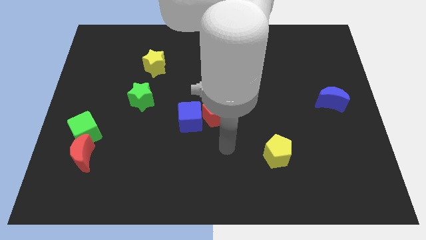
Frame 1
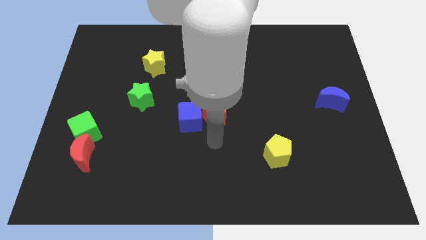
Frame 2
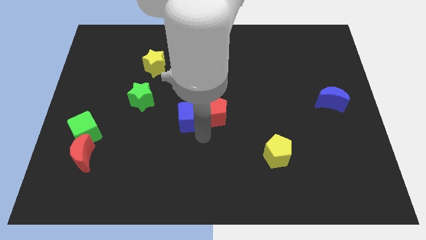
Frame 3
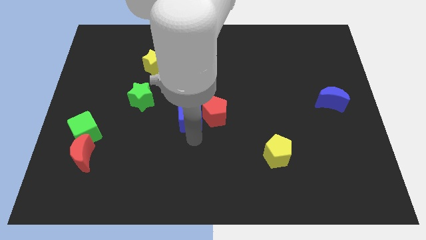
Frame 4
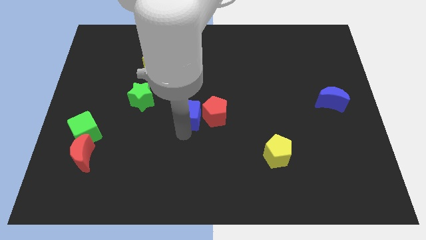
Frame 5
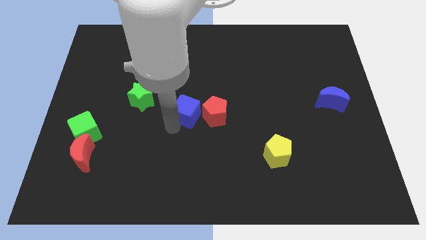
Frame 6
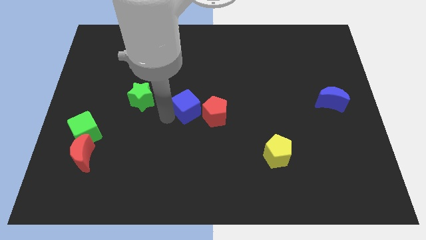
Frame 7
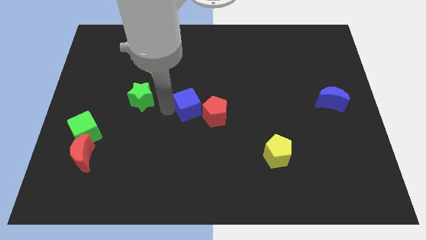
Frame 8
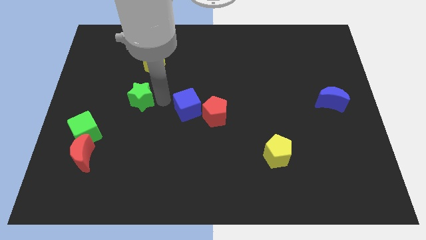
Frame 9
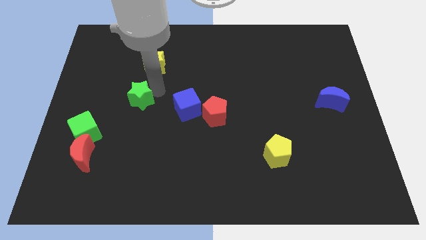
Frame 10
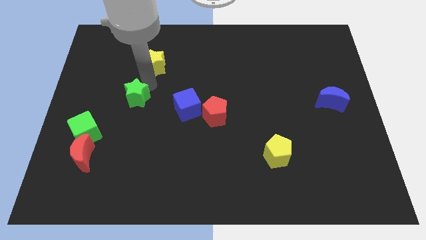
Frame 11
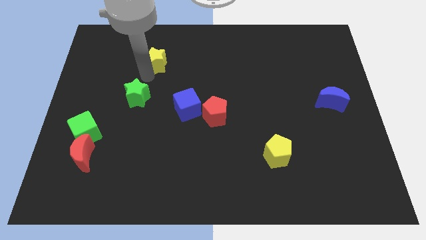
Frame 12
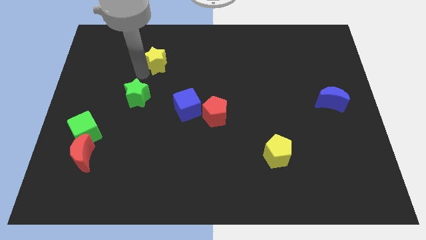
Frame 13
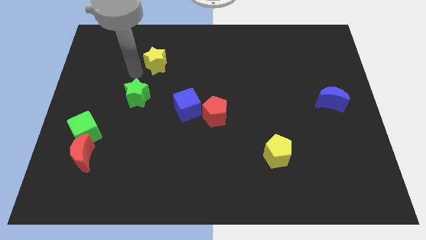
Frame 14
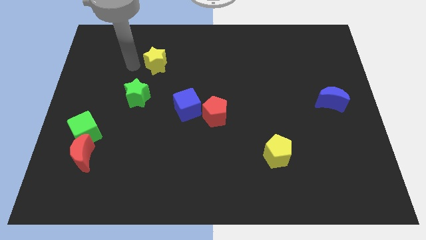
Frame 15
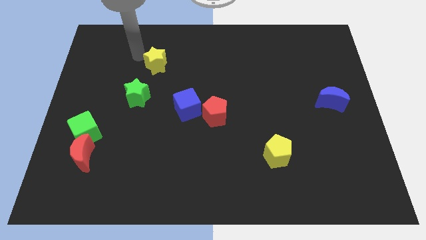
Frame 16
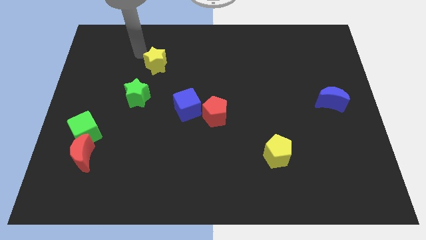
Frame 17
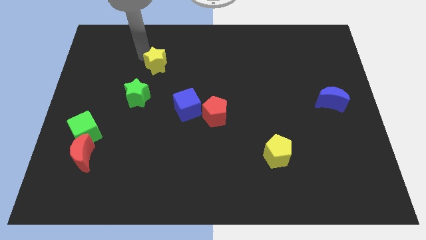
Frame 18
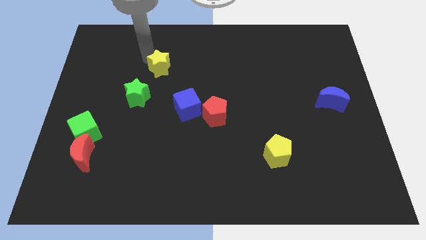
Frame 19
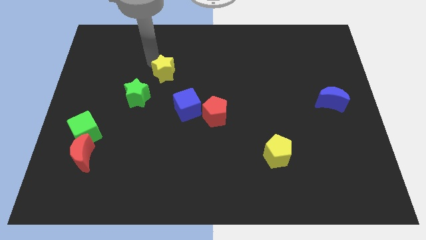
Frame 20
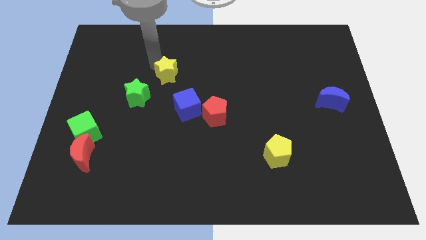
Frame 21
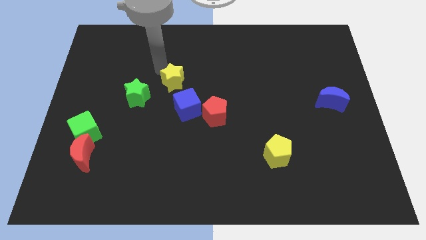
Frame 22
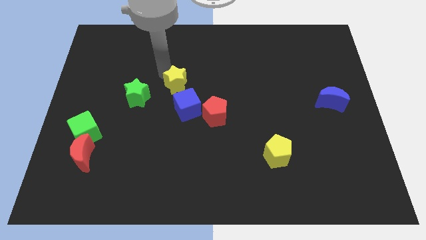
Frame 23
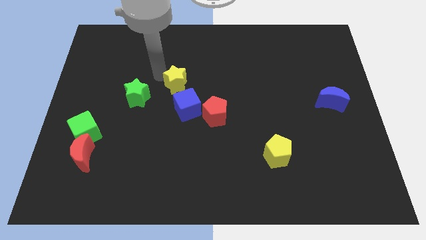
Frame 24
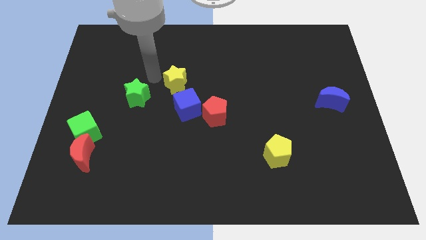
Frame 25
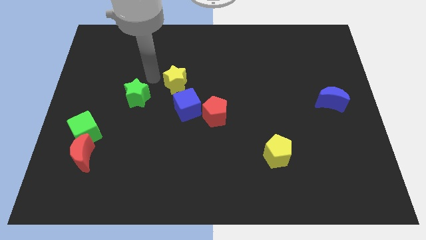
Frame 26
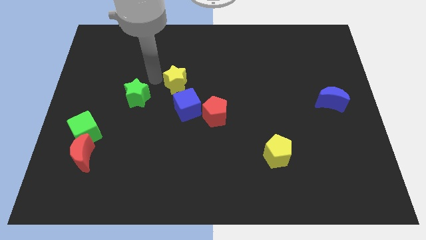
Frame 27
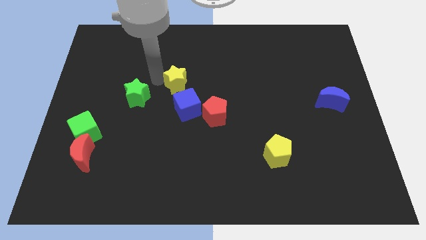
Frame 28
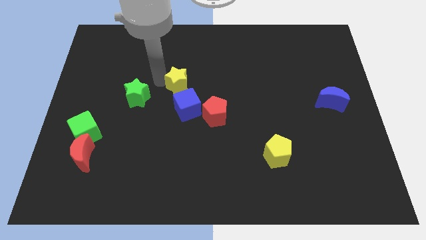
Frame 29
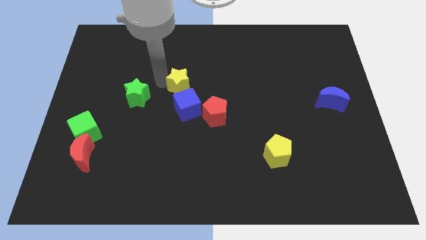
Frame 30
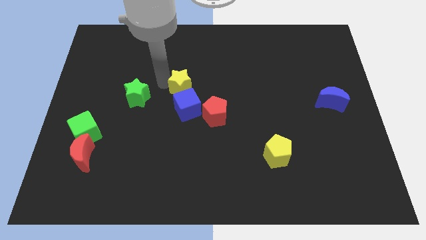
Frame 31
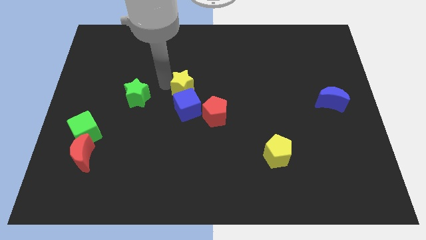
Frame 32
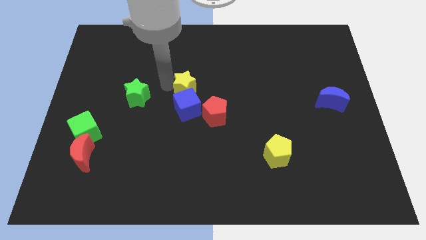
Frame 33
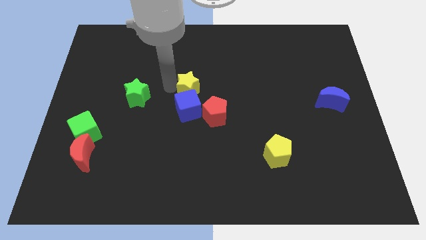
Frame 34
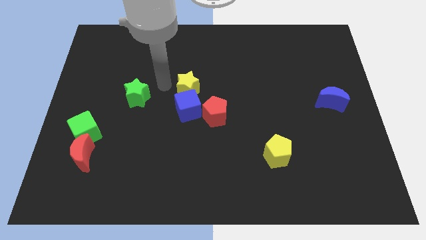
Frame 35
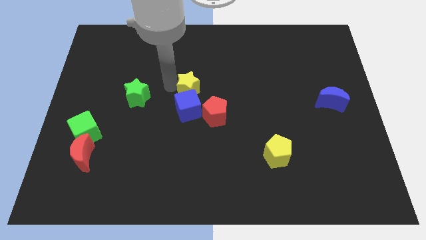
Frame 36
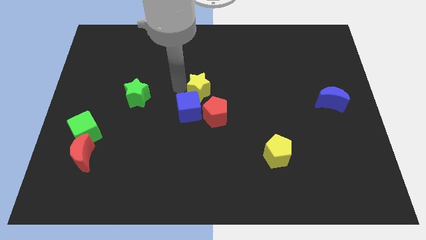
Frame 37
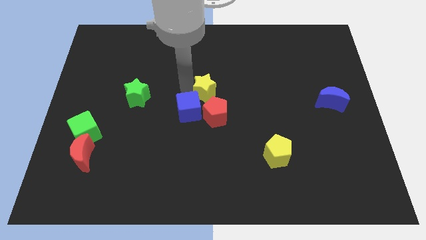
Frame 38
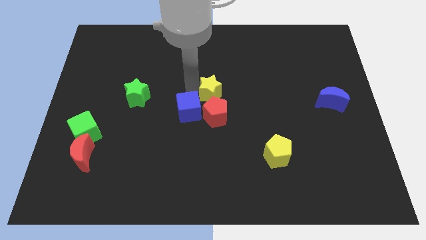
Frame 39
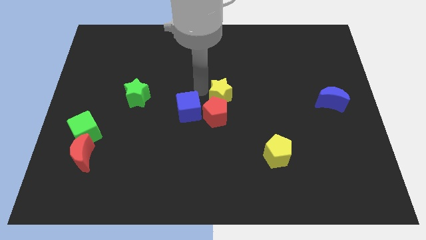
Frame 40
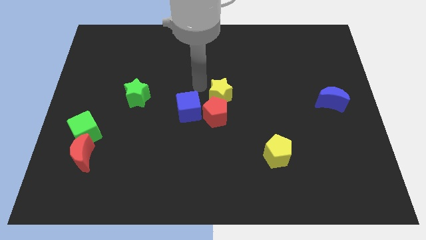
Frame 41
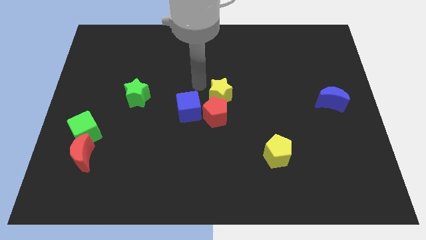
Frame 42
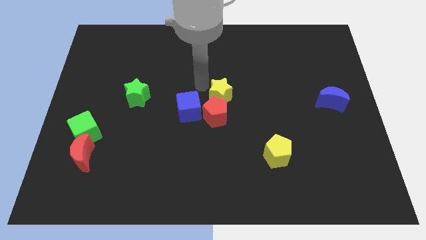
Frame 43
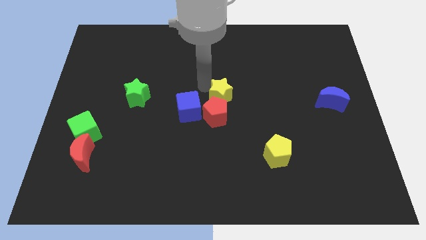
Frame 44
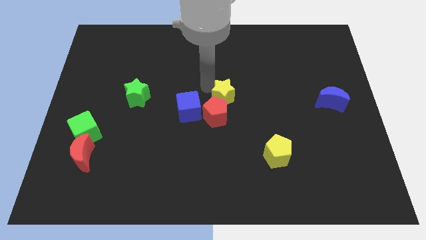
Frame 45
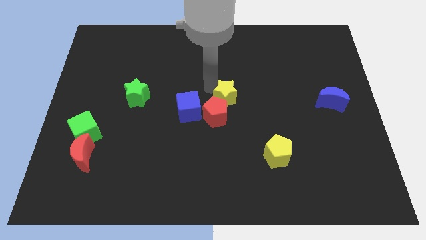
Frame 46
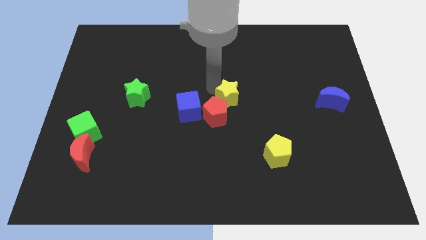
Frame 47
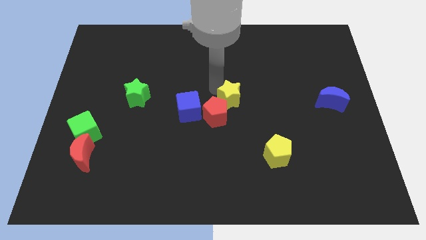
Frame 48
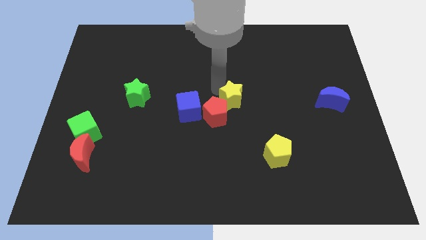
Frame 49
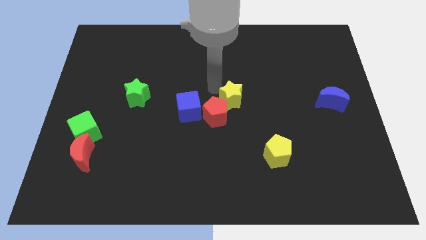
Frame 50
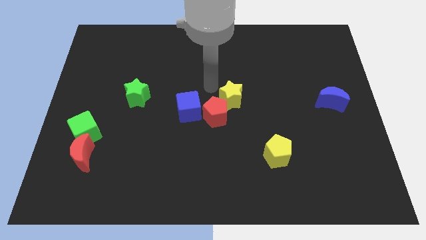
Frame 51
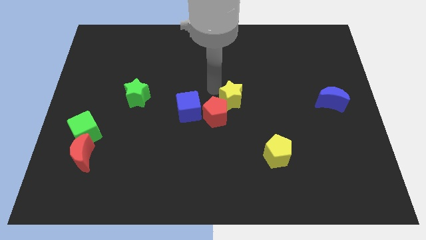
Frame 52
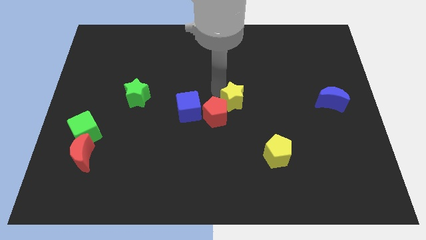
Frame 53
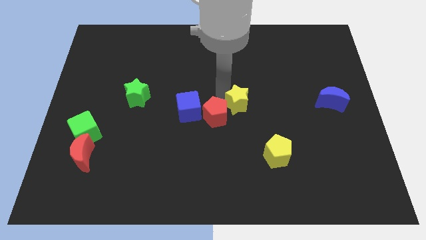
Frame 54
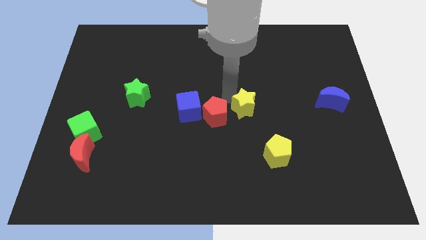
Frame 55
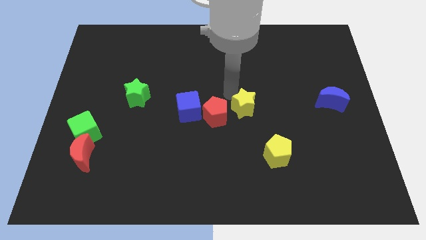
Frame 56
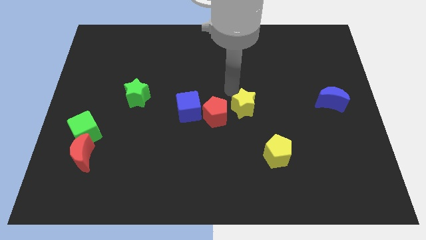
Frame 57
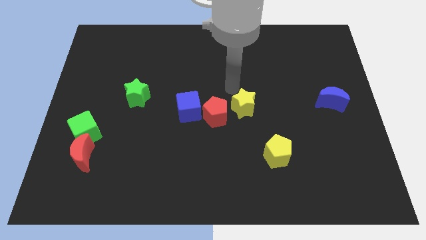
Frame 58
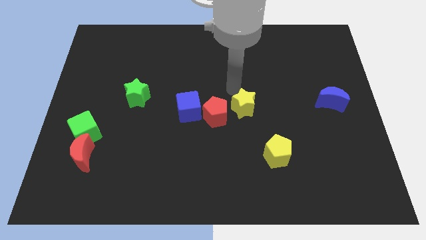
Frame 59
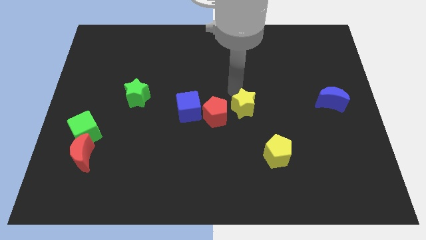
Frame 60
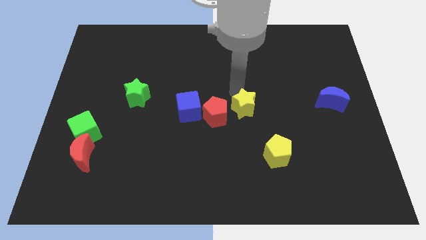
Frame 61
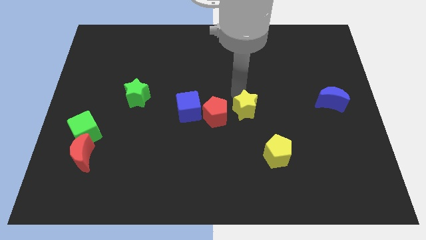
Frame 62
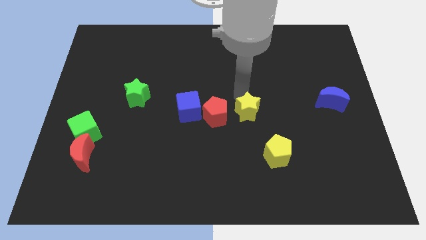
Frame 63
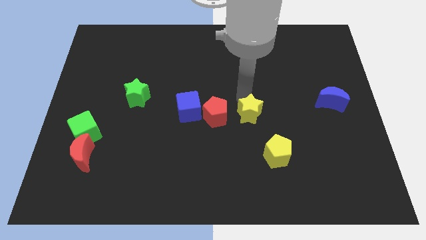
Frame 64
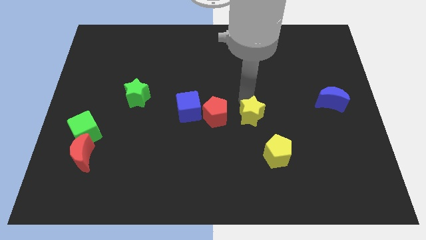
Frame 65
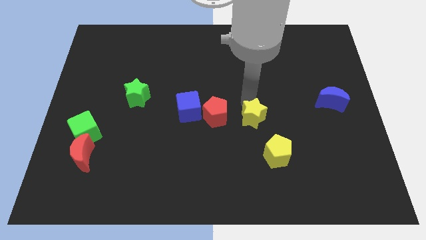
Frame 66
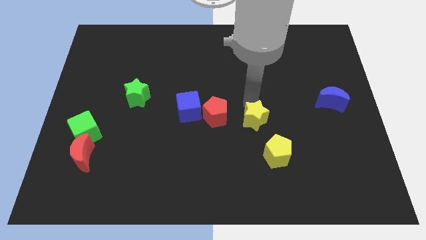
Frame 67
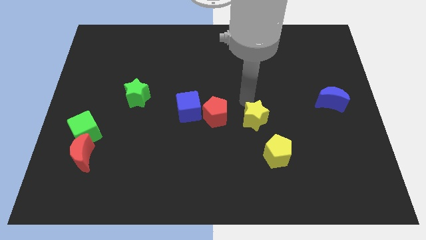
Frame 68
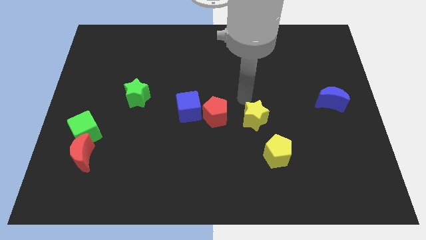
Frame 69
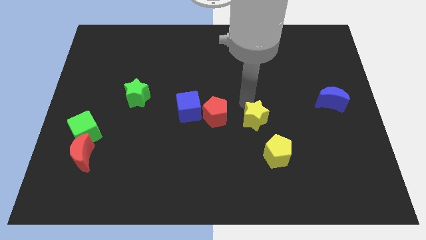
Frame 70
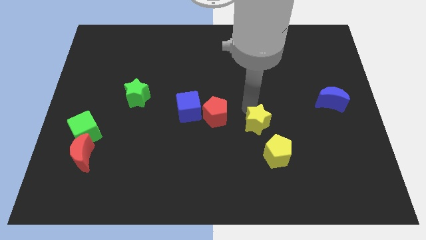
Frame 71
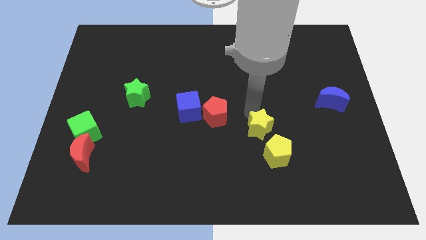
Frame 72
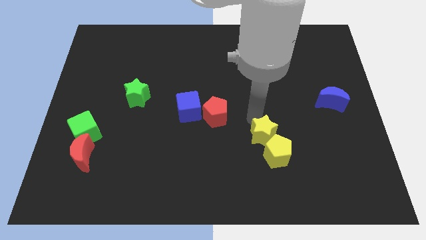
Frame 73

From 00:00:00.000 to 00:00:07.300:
put the yellow star next to the yellow pentagon
